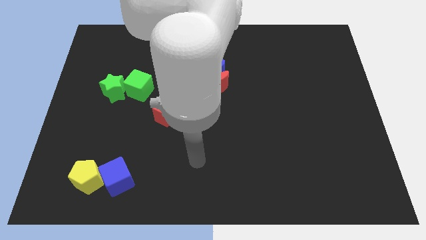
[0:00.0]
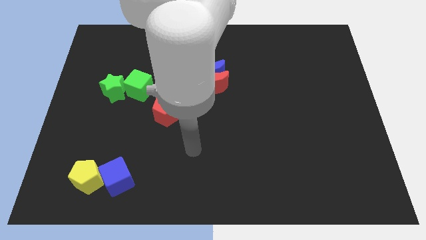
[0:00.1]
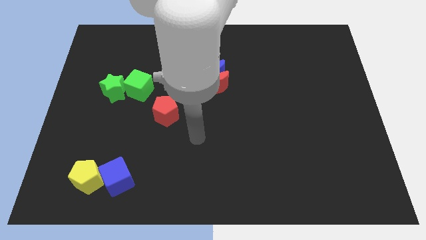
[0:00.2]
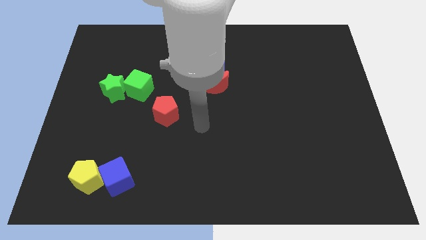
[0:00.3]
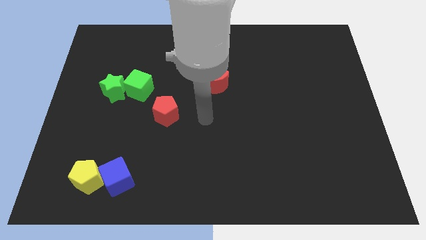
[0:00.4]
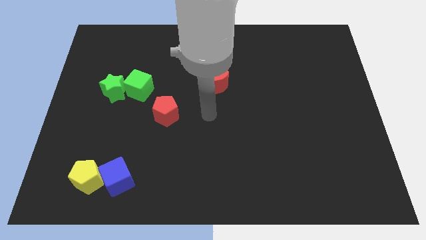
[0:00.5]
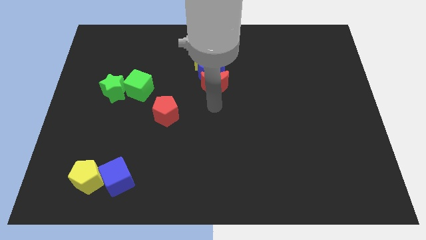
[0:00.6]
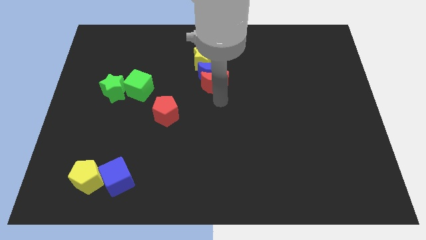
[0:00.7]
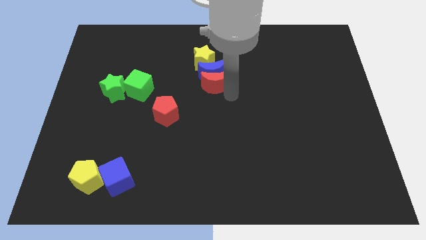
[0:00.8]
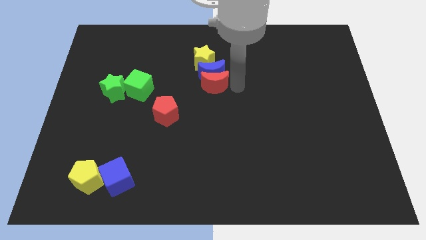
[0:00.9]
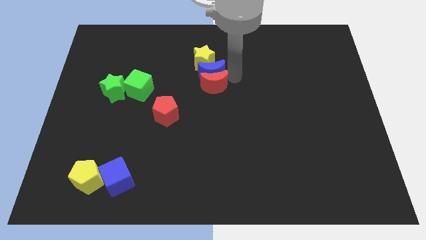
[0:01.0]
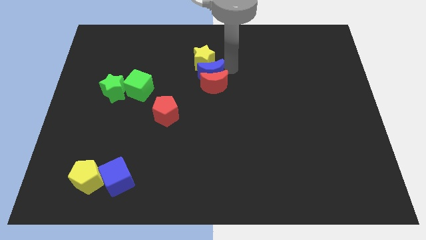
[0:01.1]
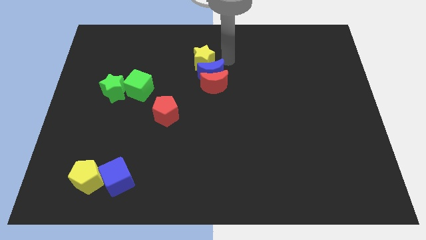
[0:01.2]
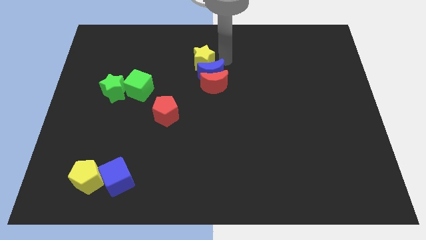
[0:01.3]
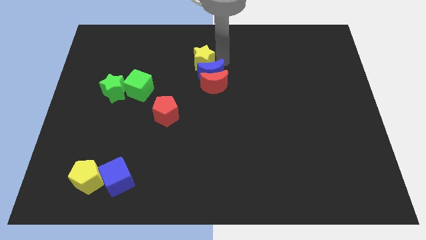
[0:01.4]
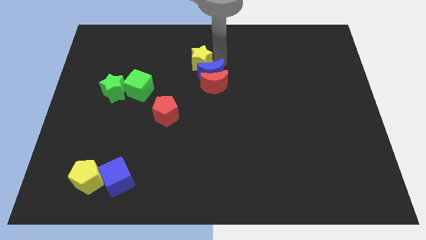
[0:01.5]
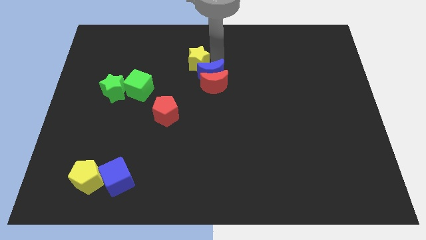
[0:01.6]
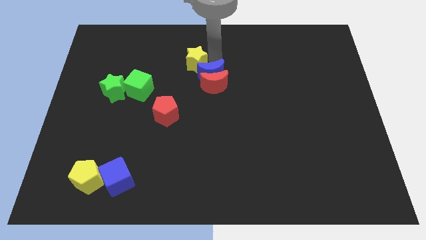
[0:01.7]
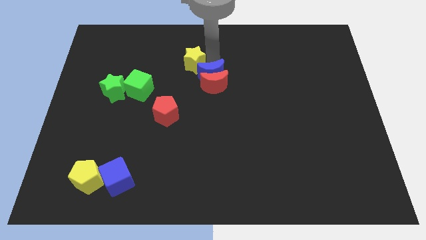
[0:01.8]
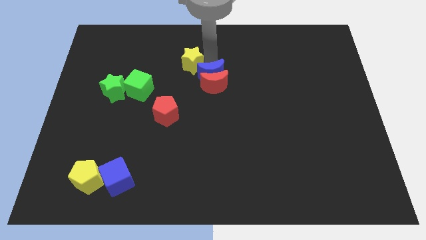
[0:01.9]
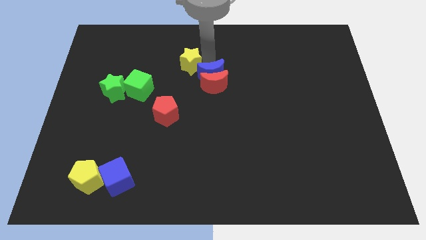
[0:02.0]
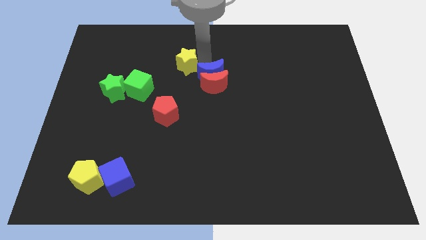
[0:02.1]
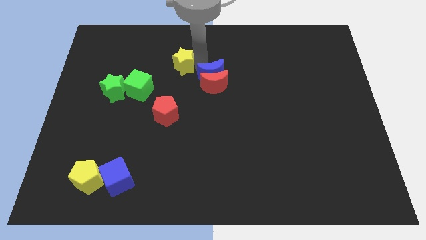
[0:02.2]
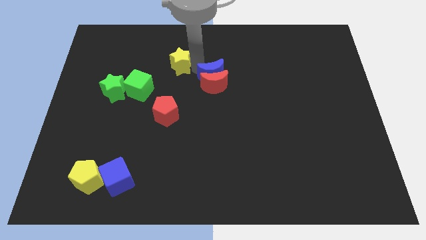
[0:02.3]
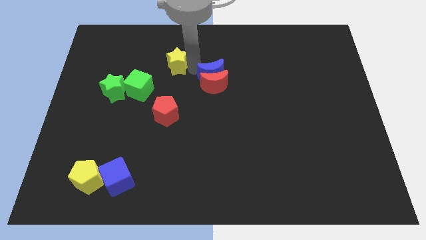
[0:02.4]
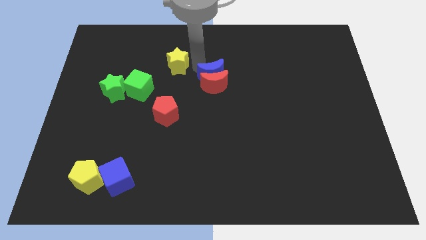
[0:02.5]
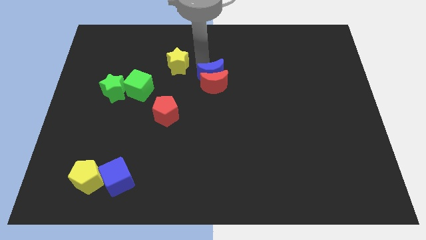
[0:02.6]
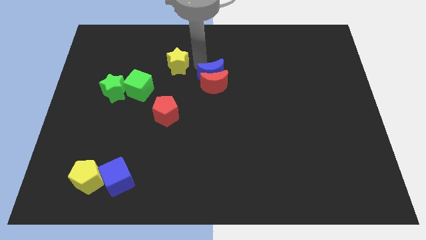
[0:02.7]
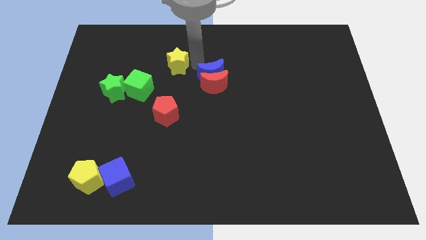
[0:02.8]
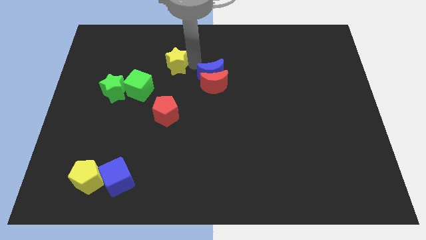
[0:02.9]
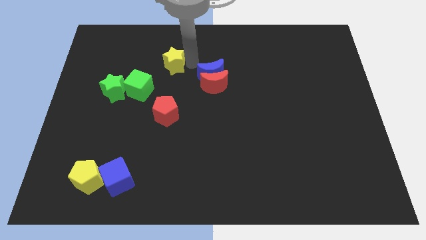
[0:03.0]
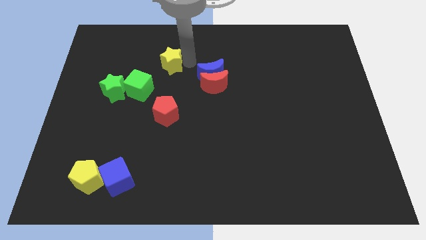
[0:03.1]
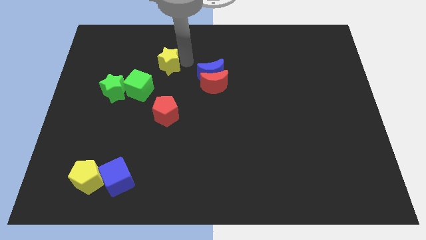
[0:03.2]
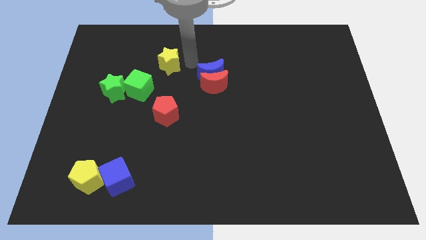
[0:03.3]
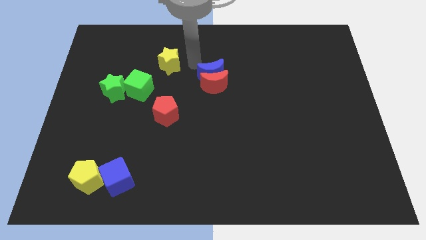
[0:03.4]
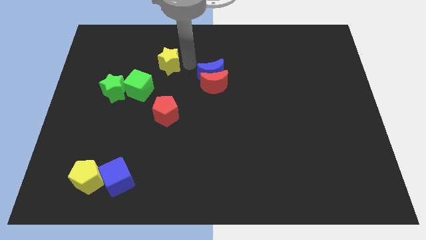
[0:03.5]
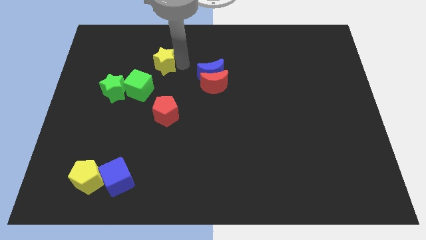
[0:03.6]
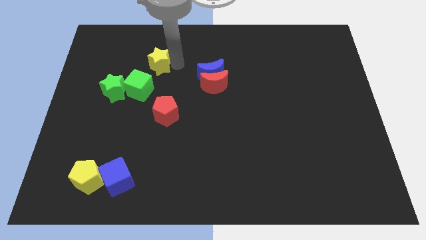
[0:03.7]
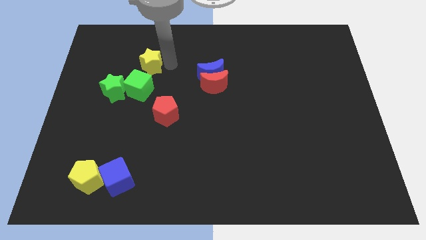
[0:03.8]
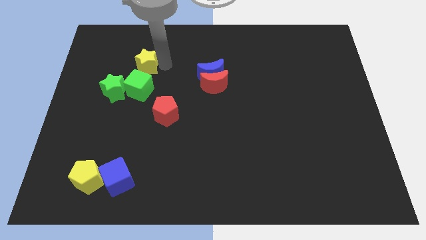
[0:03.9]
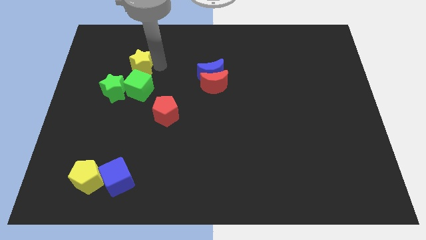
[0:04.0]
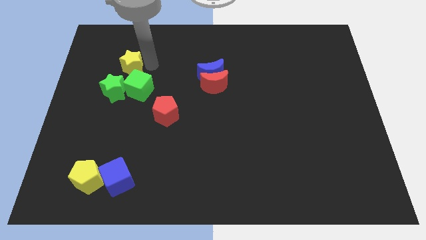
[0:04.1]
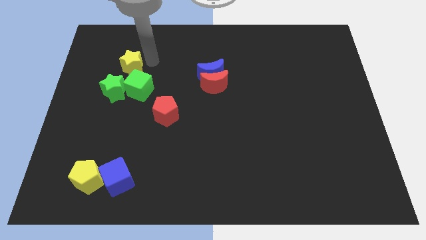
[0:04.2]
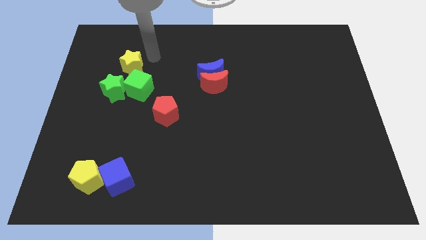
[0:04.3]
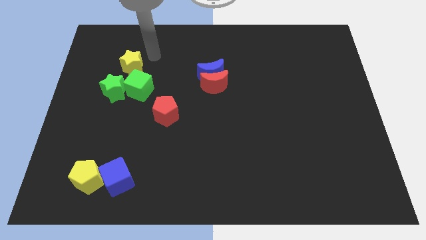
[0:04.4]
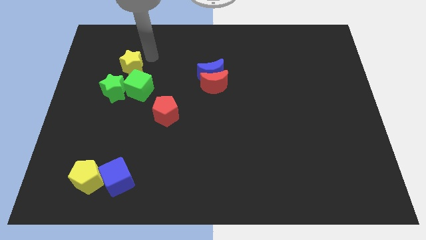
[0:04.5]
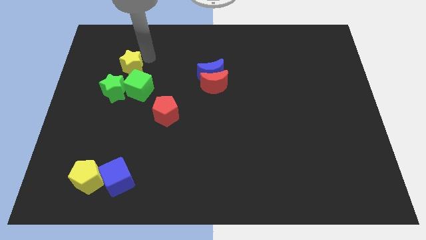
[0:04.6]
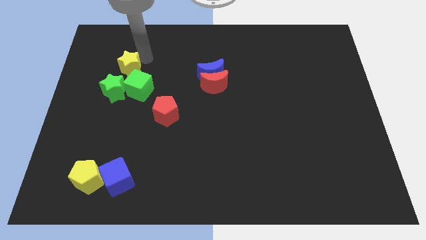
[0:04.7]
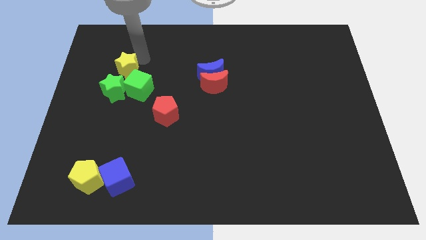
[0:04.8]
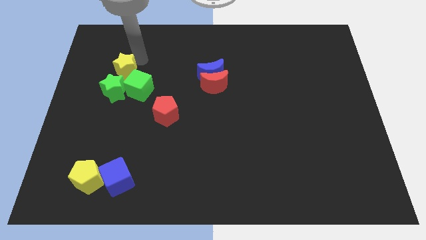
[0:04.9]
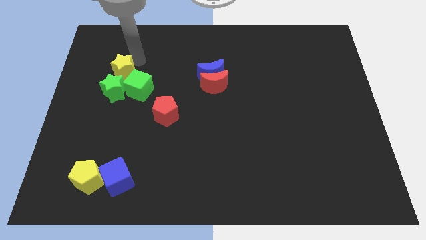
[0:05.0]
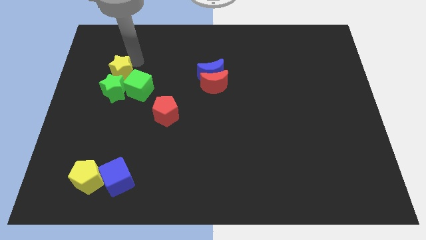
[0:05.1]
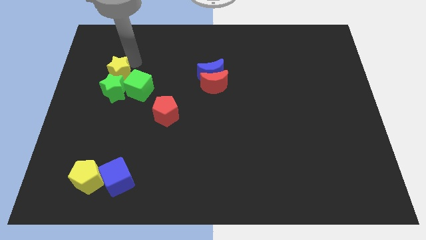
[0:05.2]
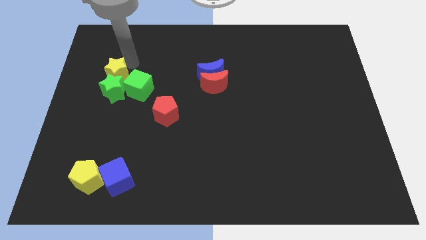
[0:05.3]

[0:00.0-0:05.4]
slide the yellow star left of the green cube

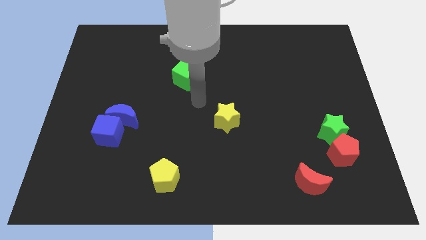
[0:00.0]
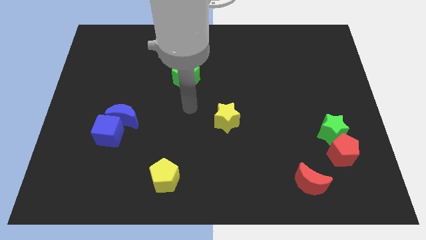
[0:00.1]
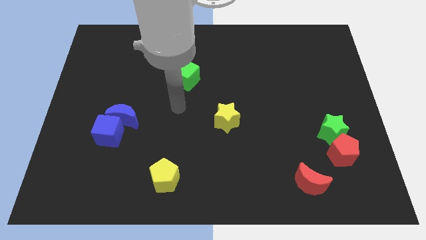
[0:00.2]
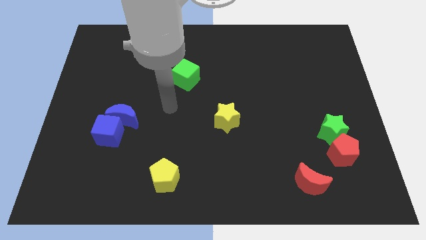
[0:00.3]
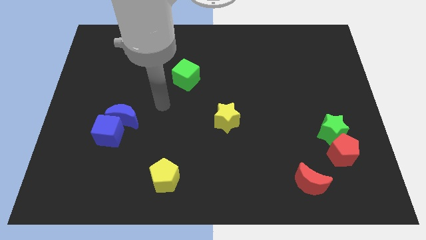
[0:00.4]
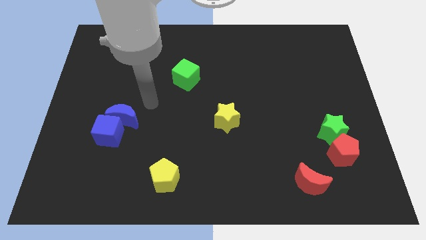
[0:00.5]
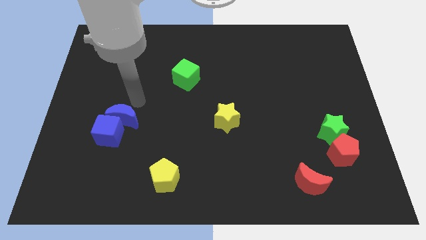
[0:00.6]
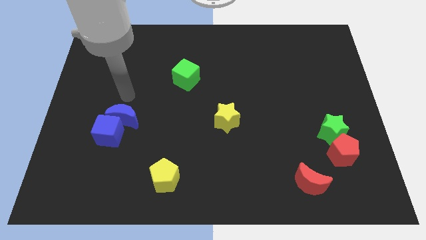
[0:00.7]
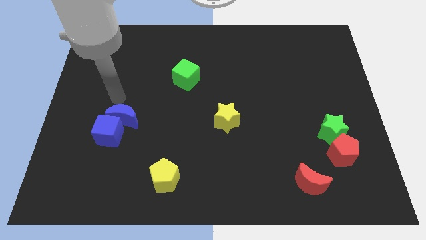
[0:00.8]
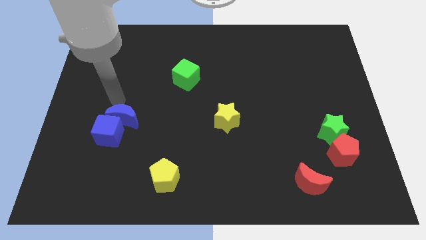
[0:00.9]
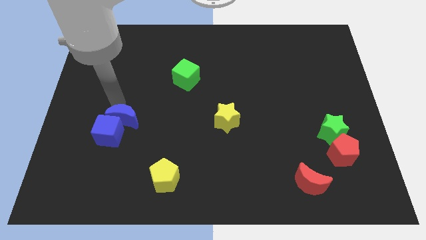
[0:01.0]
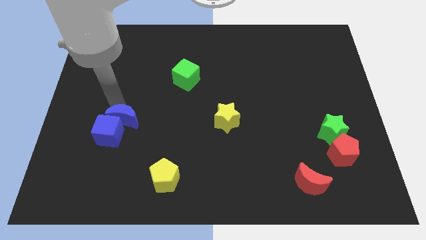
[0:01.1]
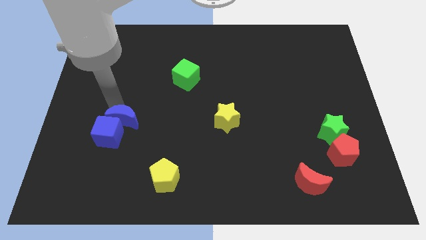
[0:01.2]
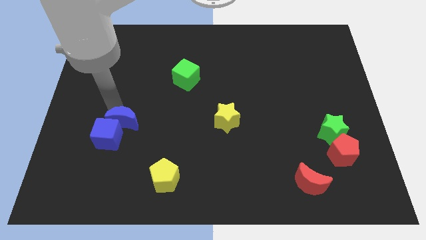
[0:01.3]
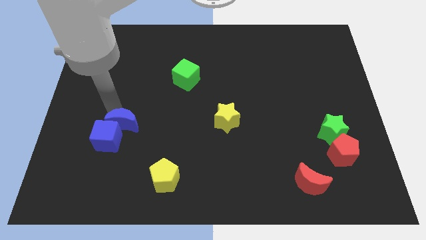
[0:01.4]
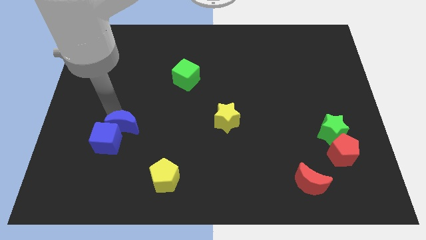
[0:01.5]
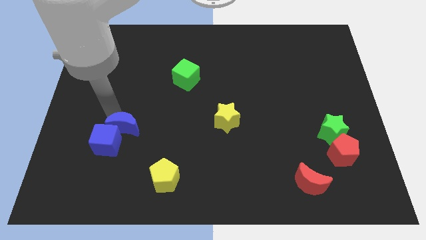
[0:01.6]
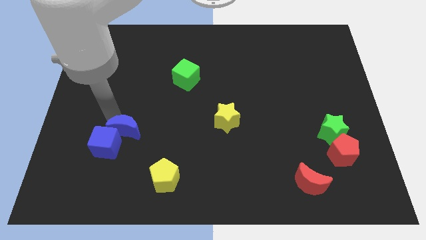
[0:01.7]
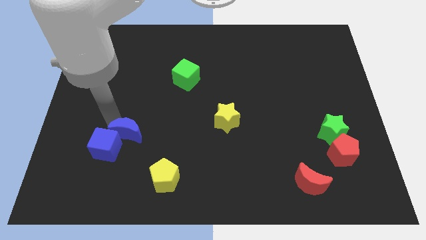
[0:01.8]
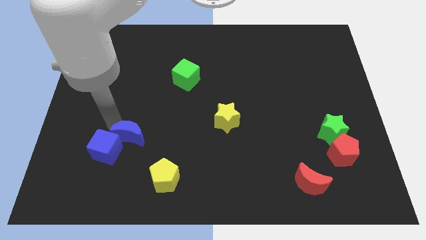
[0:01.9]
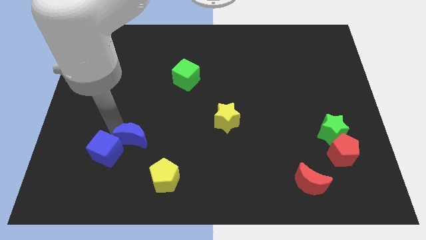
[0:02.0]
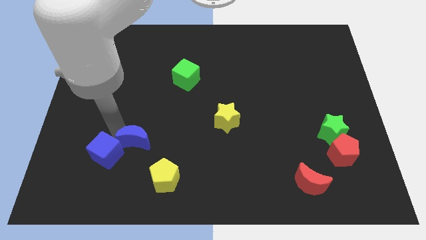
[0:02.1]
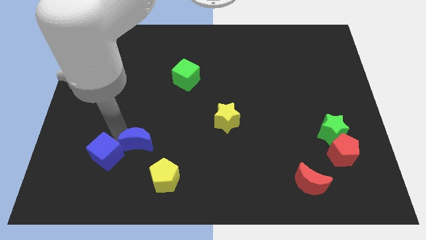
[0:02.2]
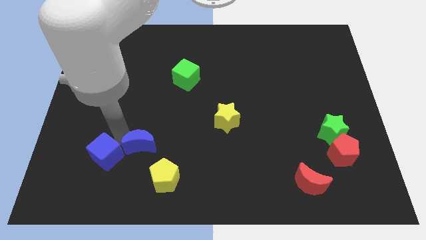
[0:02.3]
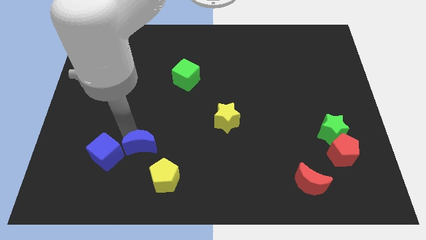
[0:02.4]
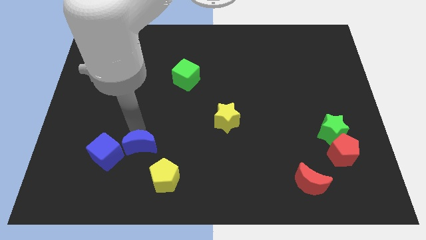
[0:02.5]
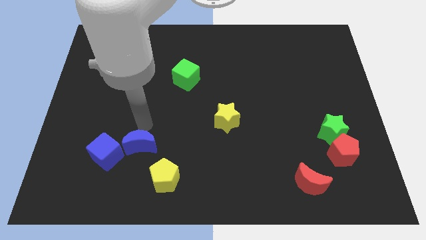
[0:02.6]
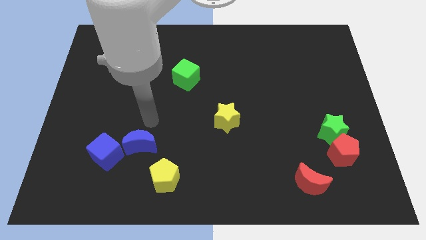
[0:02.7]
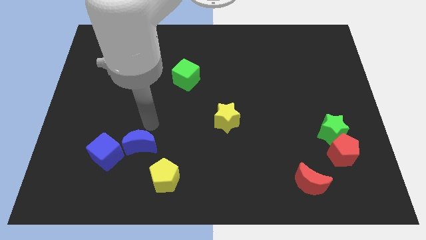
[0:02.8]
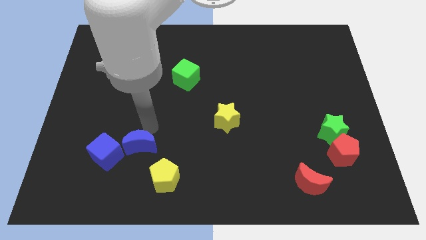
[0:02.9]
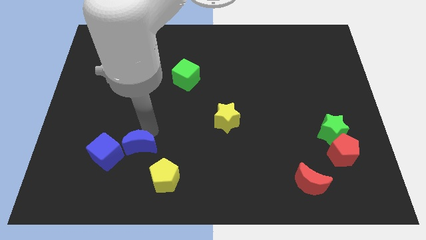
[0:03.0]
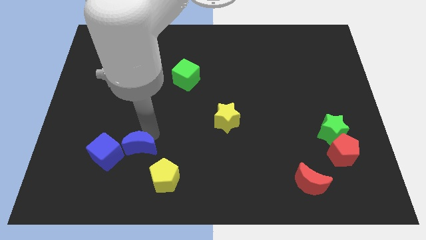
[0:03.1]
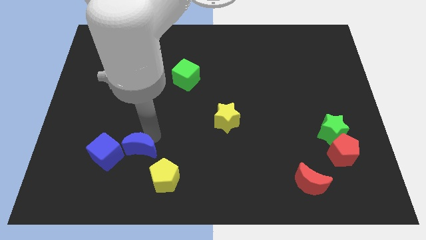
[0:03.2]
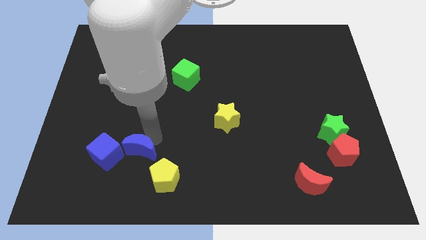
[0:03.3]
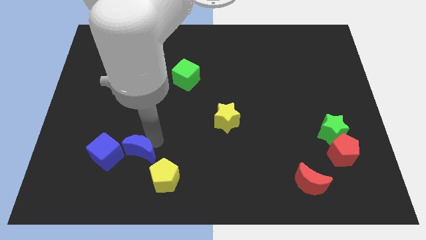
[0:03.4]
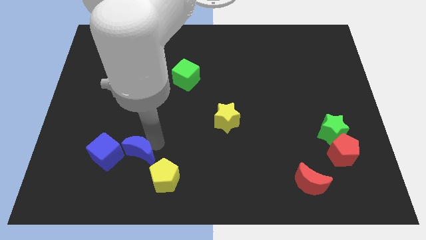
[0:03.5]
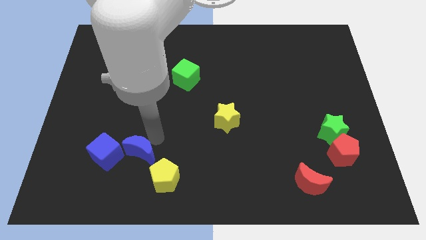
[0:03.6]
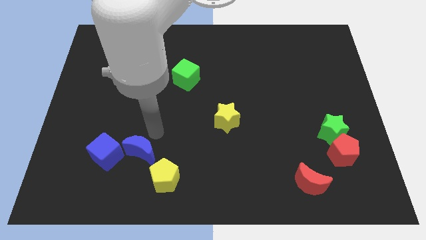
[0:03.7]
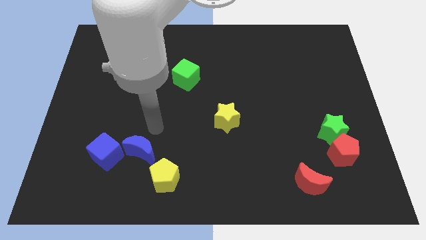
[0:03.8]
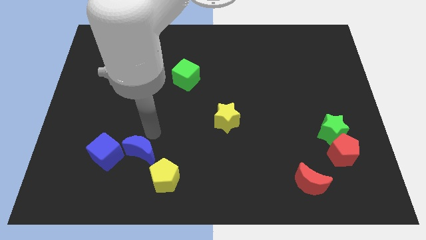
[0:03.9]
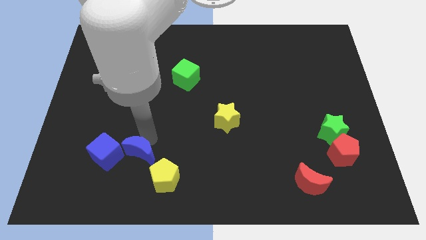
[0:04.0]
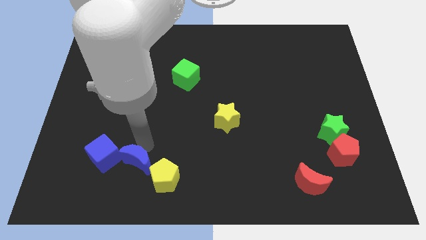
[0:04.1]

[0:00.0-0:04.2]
put the blue moon to the bottom right of the blue cube
